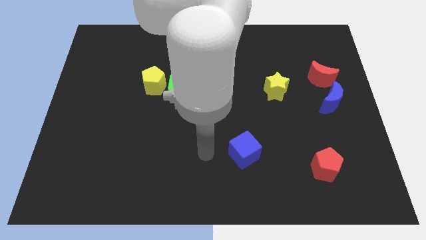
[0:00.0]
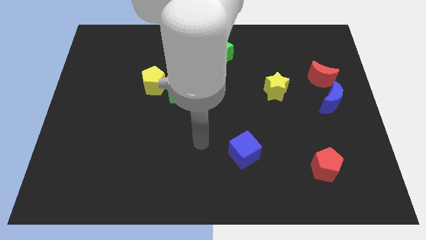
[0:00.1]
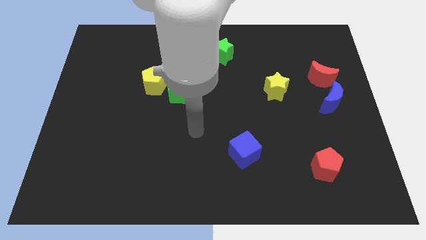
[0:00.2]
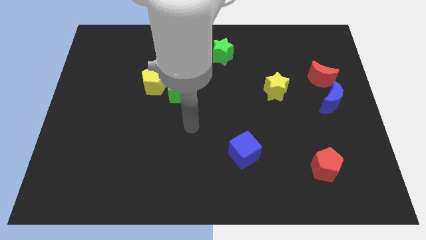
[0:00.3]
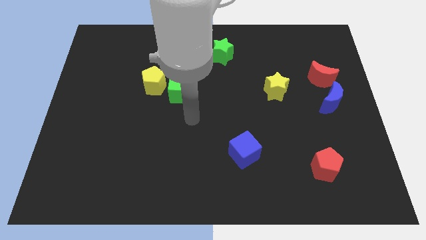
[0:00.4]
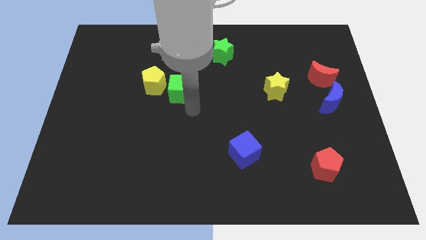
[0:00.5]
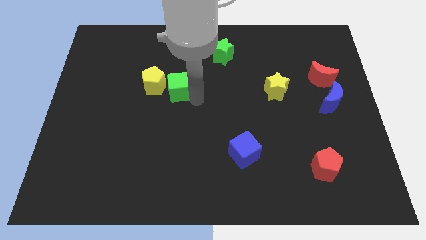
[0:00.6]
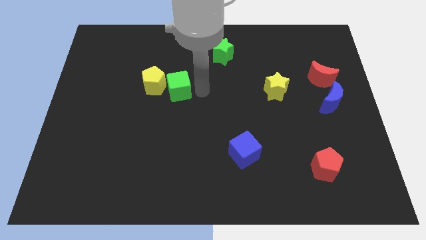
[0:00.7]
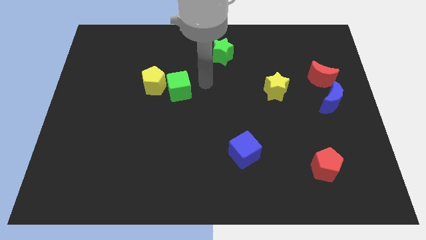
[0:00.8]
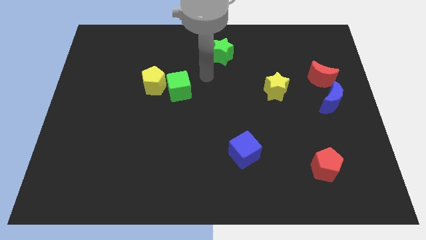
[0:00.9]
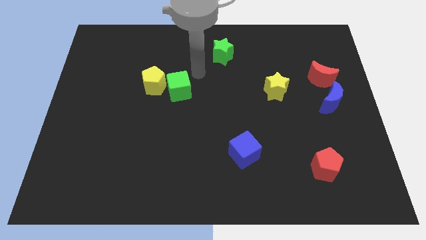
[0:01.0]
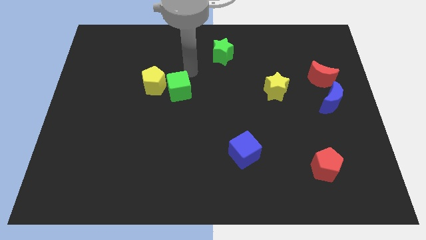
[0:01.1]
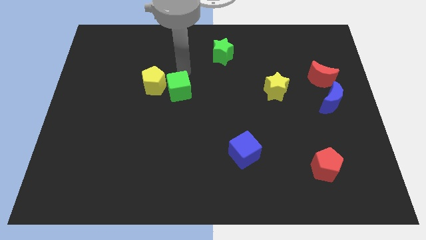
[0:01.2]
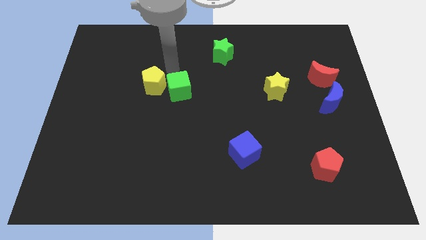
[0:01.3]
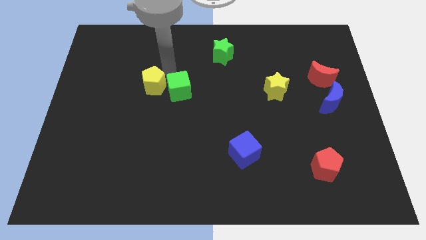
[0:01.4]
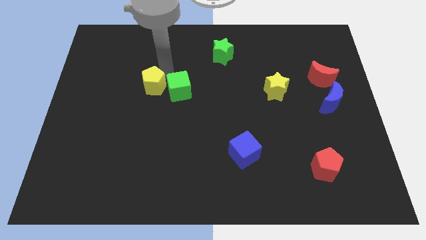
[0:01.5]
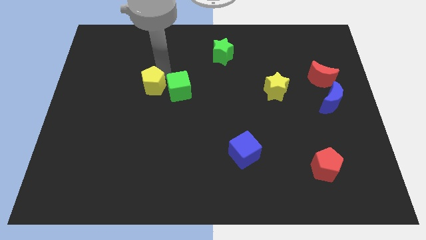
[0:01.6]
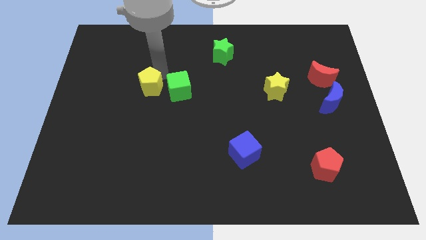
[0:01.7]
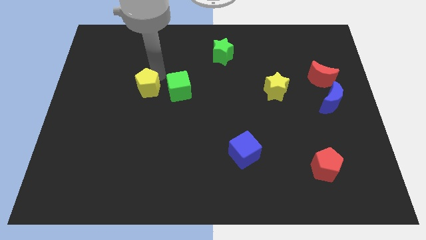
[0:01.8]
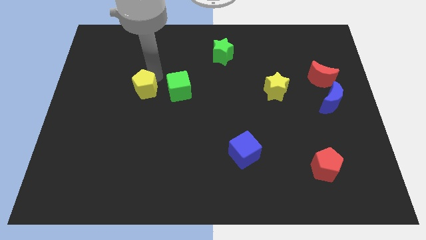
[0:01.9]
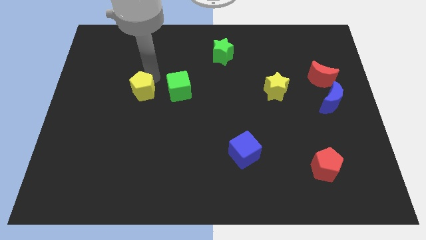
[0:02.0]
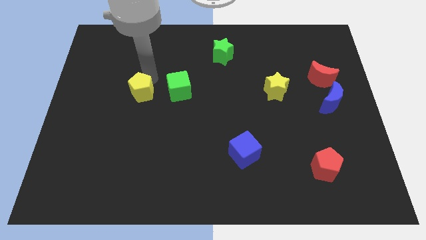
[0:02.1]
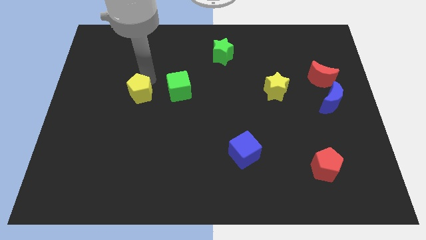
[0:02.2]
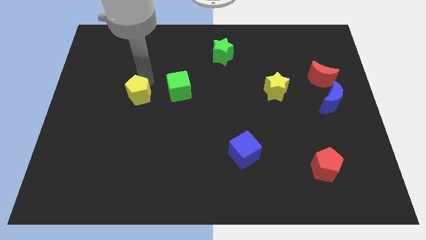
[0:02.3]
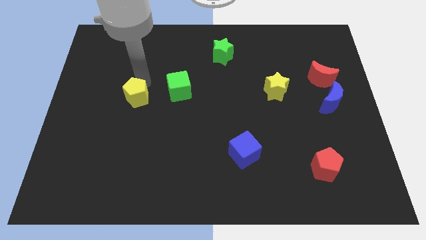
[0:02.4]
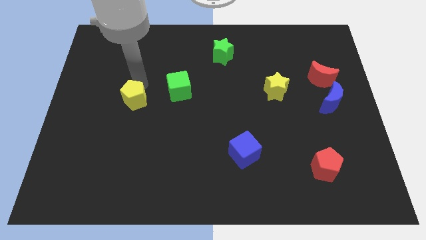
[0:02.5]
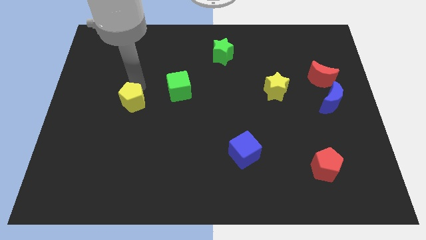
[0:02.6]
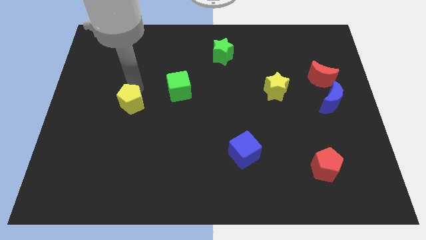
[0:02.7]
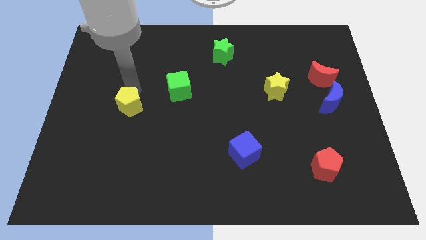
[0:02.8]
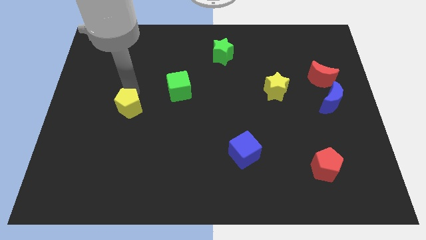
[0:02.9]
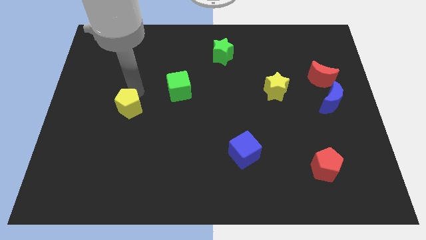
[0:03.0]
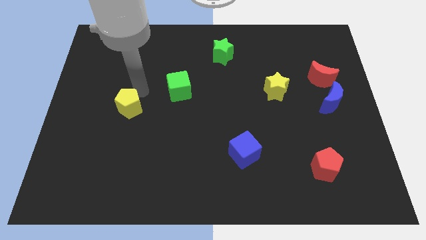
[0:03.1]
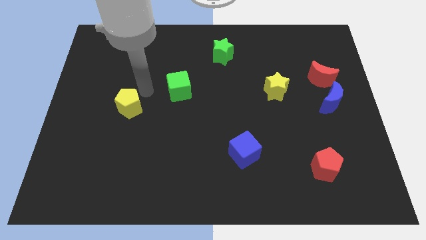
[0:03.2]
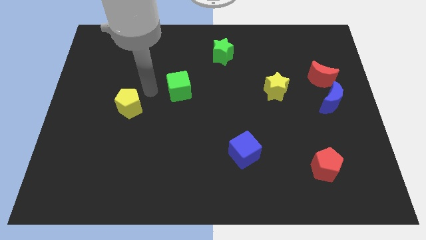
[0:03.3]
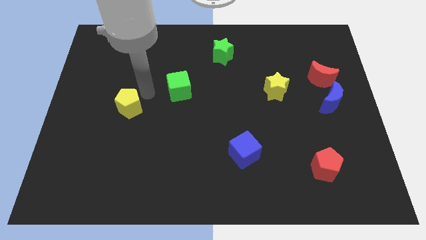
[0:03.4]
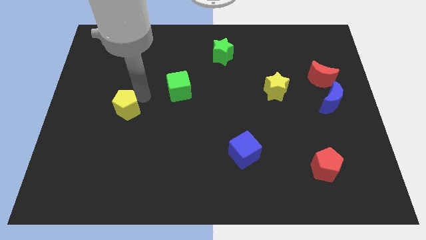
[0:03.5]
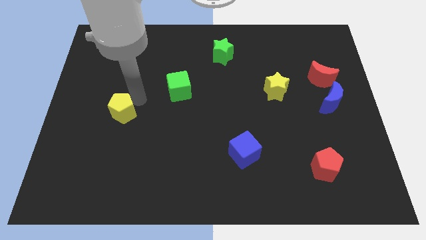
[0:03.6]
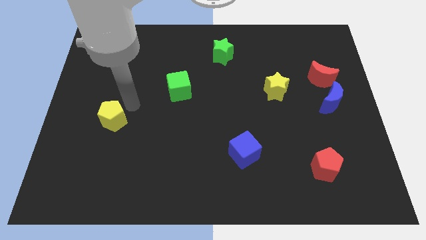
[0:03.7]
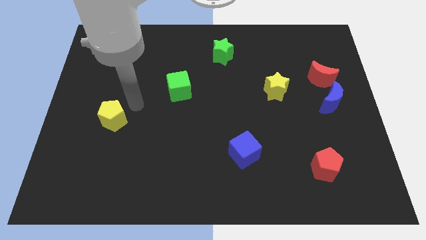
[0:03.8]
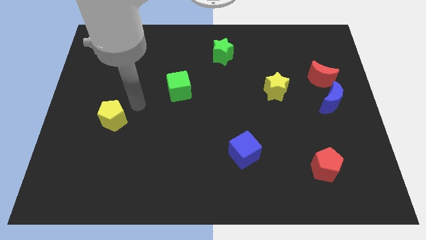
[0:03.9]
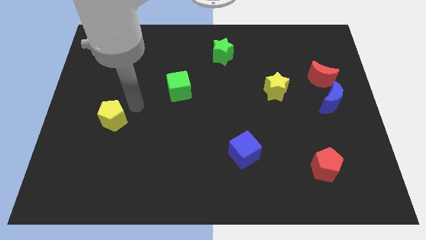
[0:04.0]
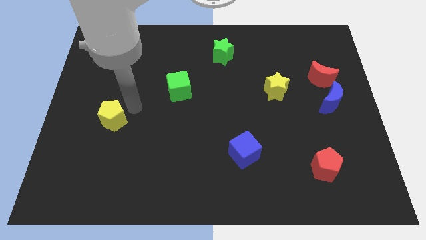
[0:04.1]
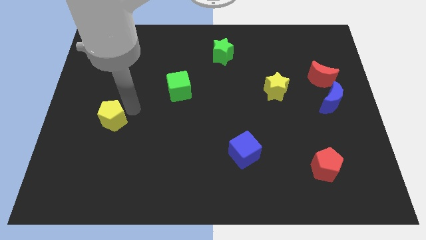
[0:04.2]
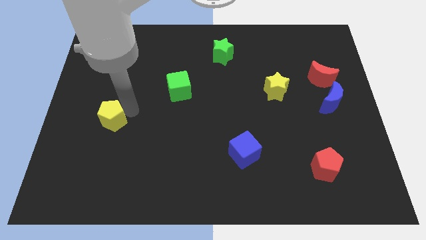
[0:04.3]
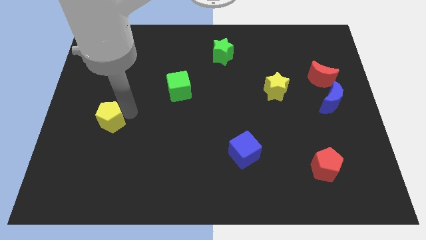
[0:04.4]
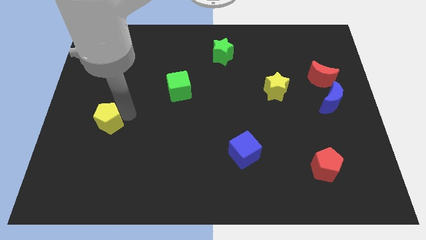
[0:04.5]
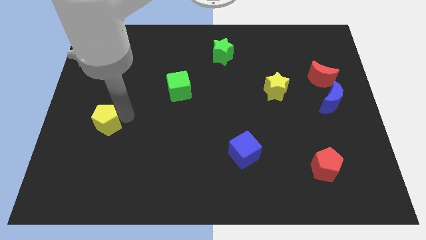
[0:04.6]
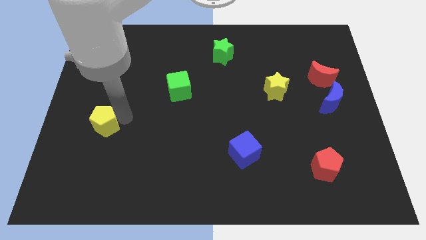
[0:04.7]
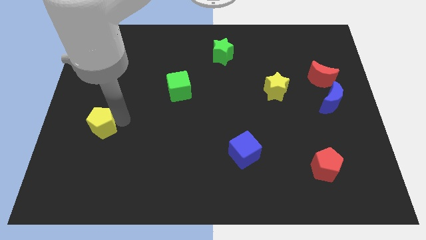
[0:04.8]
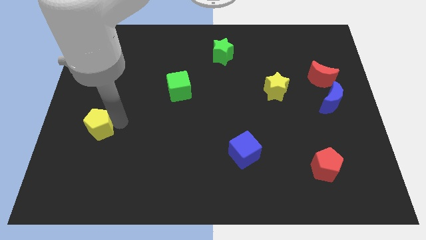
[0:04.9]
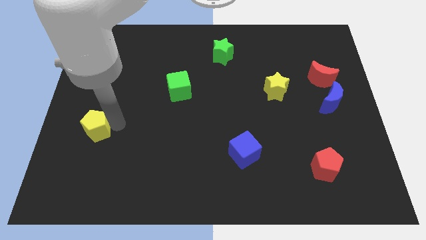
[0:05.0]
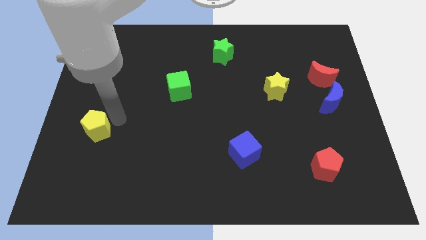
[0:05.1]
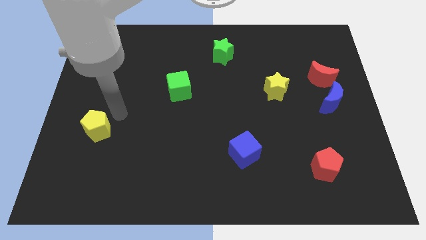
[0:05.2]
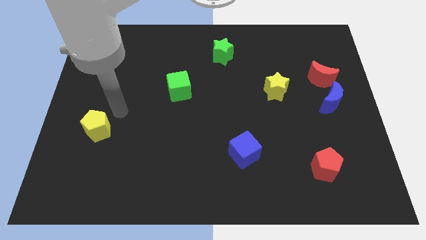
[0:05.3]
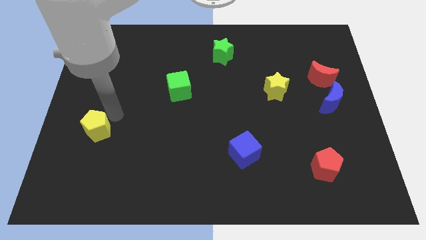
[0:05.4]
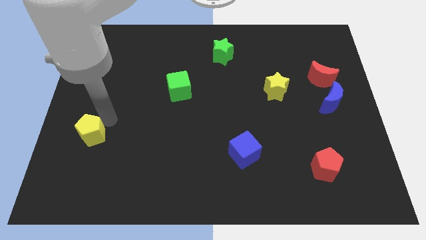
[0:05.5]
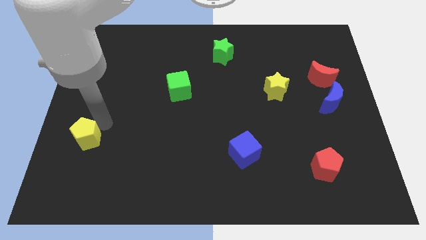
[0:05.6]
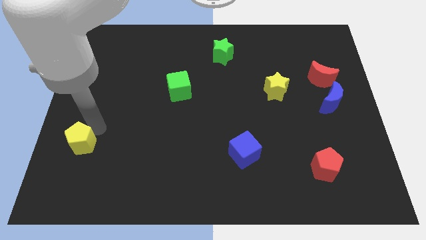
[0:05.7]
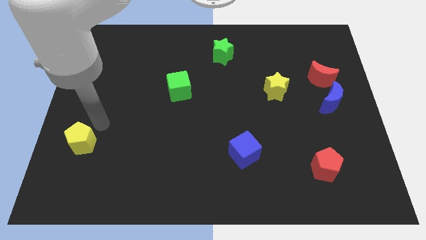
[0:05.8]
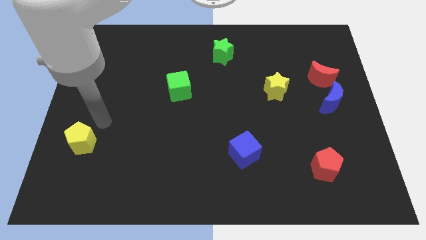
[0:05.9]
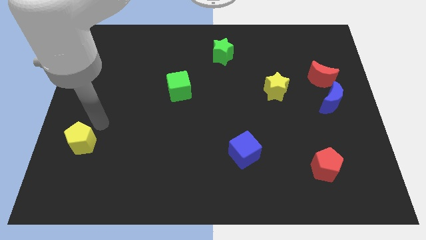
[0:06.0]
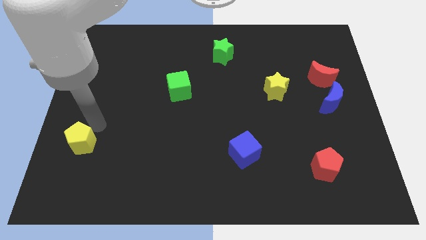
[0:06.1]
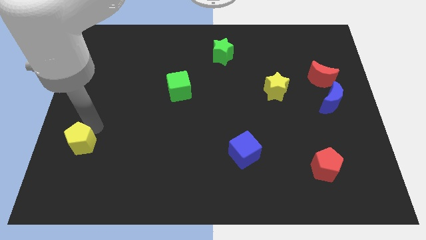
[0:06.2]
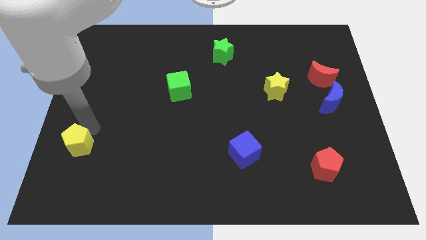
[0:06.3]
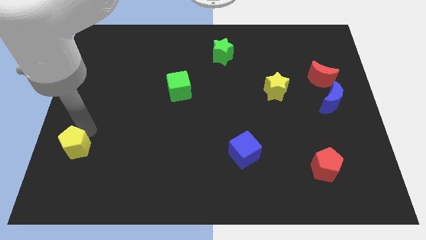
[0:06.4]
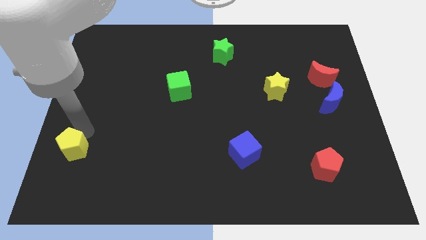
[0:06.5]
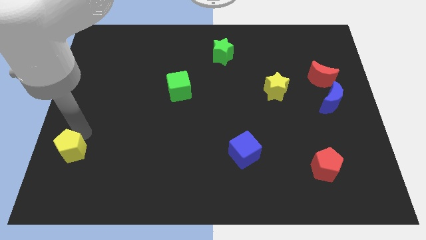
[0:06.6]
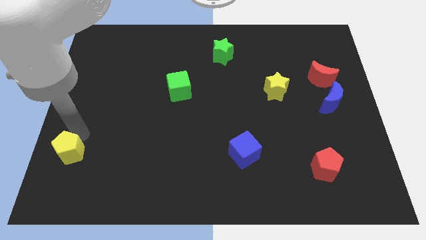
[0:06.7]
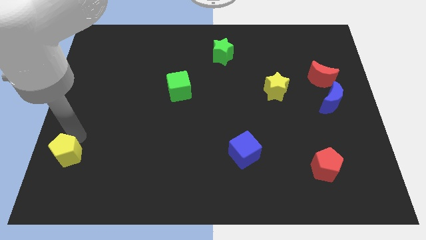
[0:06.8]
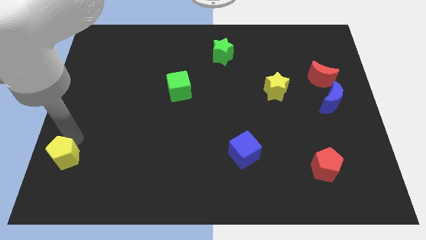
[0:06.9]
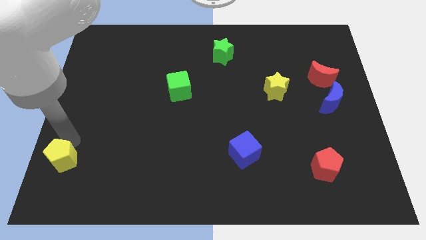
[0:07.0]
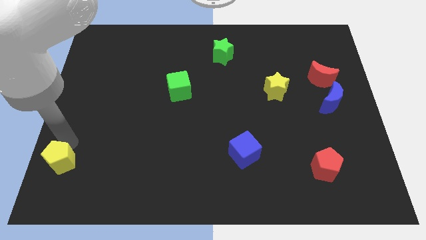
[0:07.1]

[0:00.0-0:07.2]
move the yellow pentagon to the bottom left of the board
